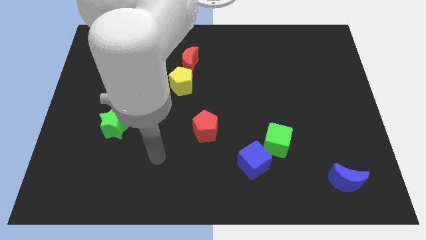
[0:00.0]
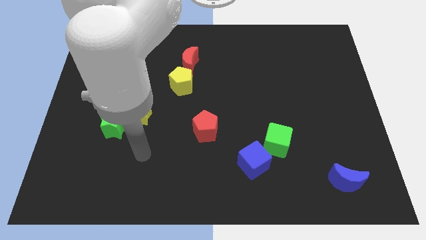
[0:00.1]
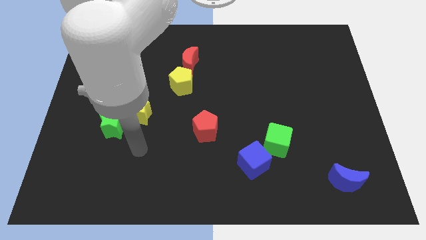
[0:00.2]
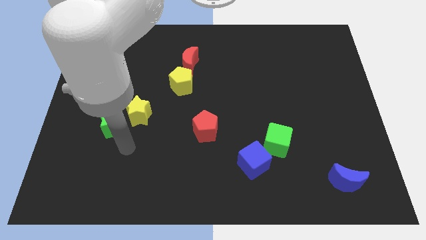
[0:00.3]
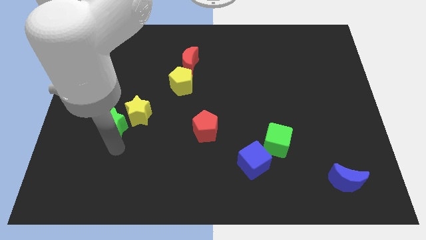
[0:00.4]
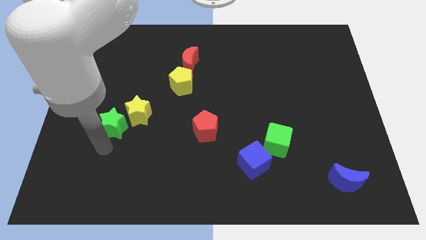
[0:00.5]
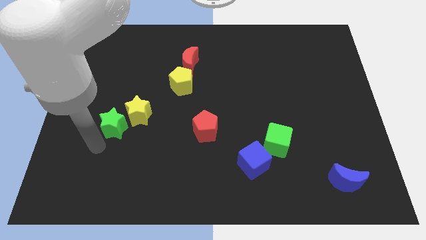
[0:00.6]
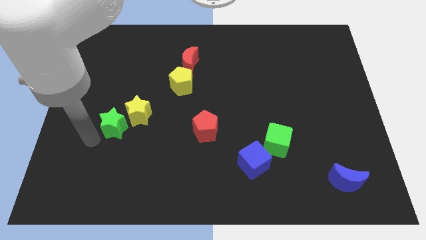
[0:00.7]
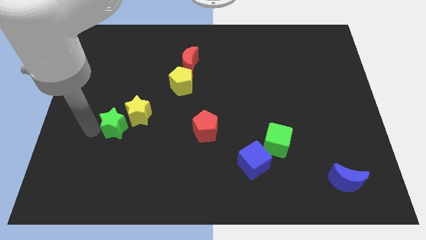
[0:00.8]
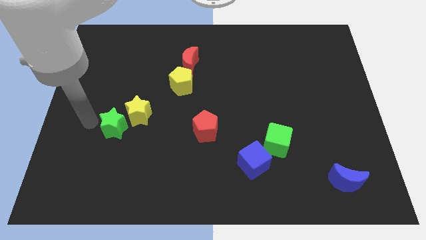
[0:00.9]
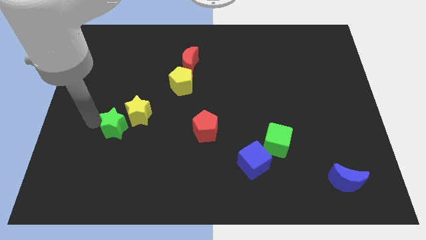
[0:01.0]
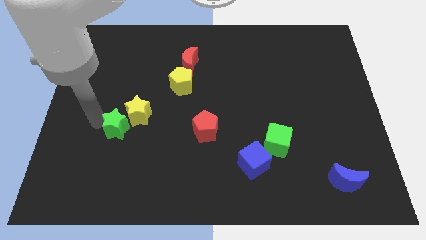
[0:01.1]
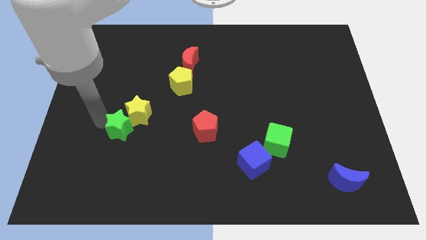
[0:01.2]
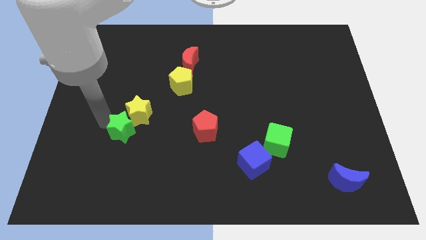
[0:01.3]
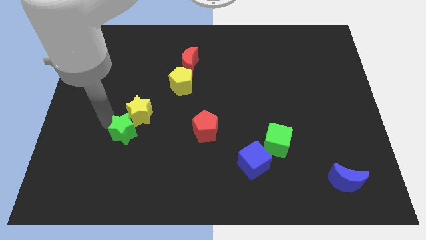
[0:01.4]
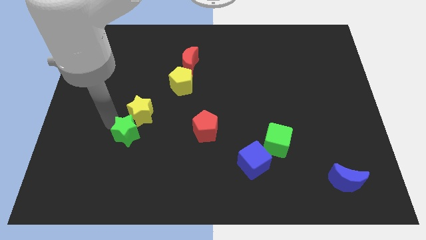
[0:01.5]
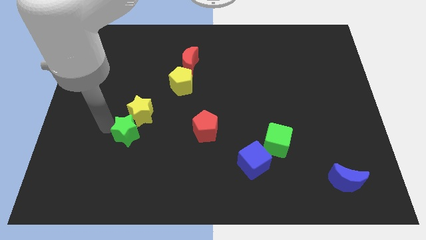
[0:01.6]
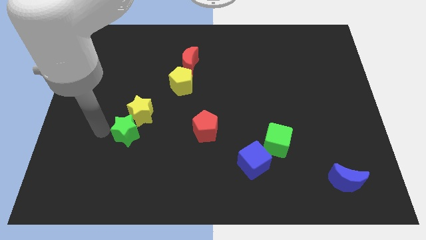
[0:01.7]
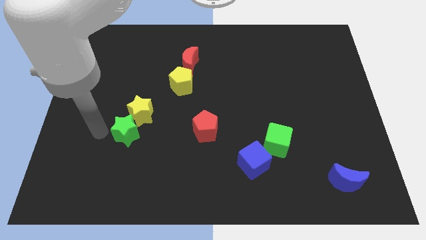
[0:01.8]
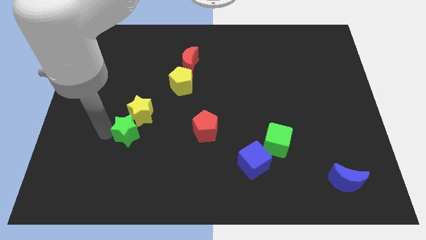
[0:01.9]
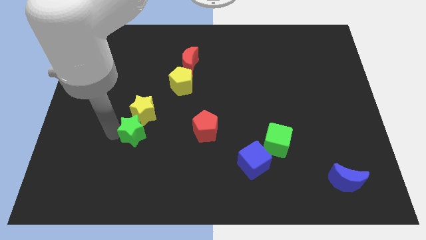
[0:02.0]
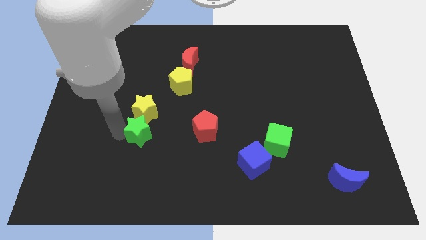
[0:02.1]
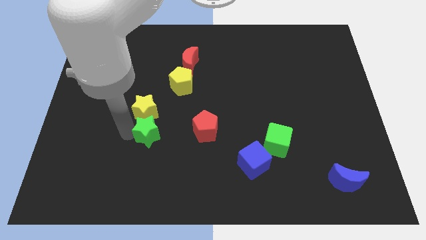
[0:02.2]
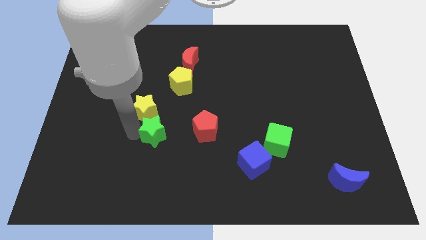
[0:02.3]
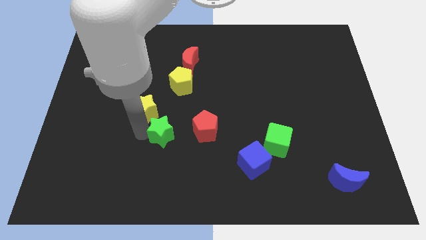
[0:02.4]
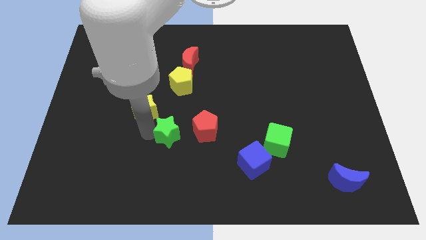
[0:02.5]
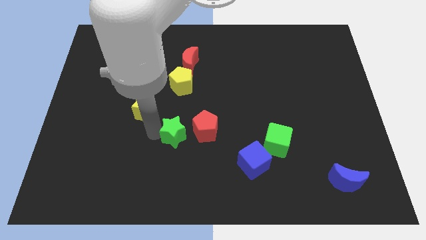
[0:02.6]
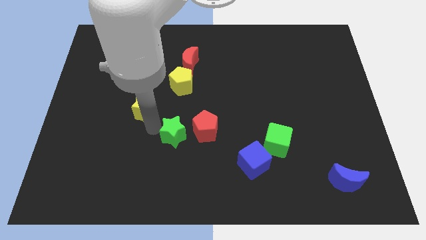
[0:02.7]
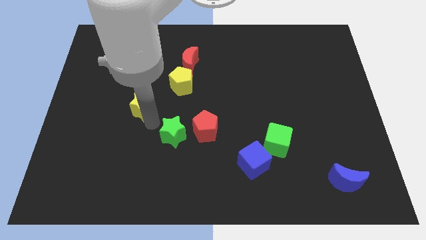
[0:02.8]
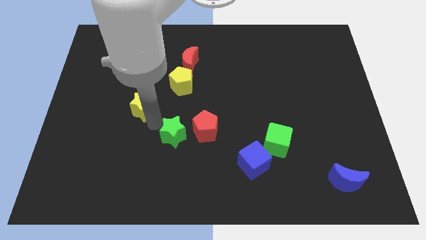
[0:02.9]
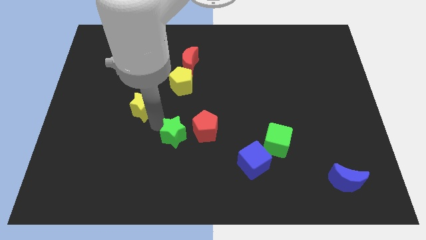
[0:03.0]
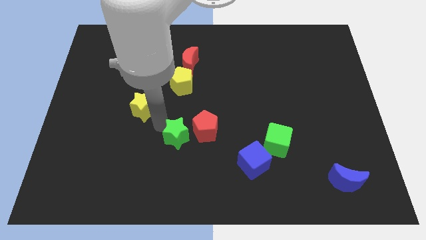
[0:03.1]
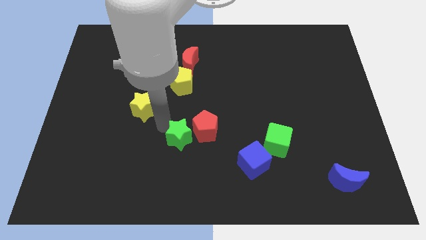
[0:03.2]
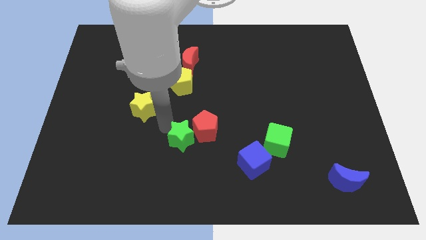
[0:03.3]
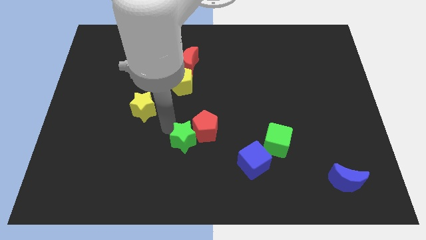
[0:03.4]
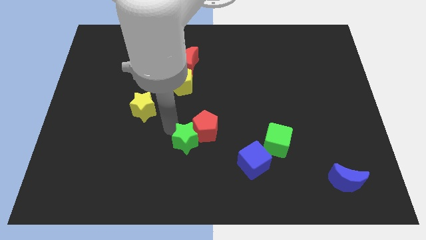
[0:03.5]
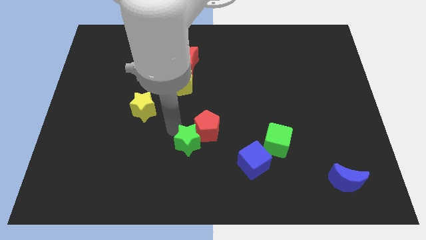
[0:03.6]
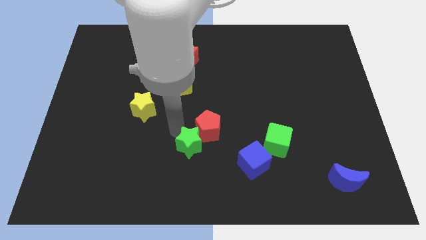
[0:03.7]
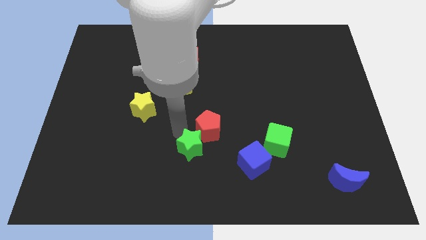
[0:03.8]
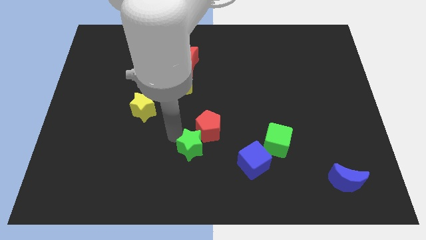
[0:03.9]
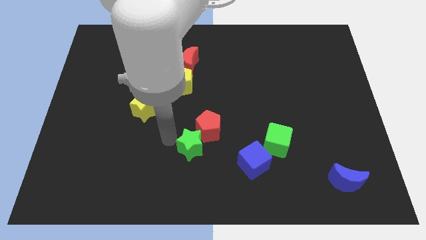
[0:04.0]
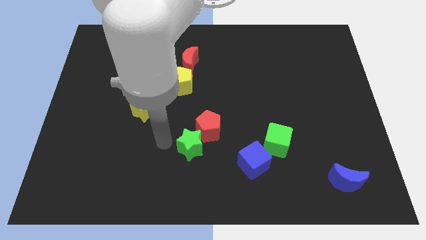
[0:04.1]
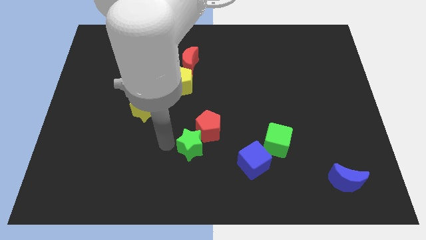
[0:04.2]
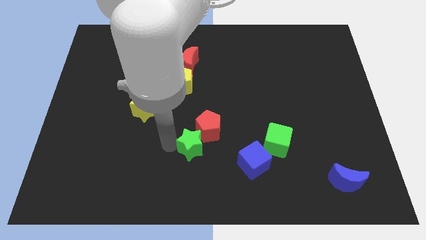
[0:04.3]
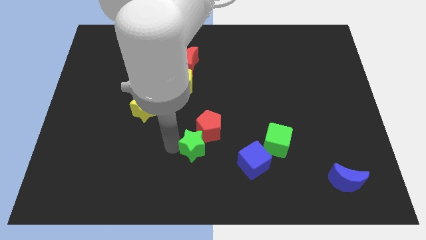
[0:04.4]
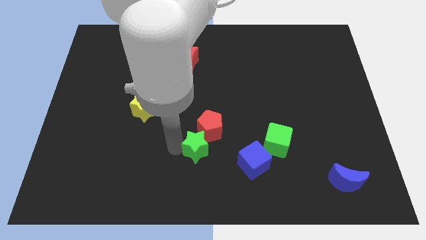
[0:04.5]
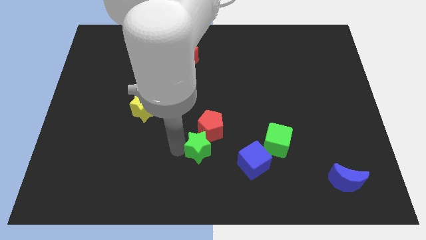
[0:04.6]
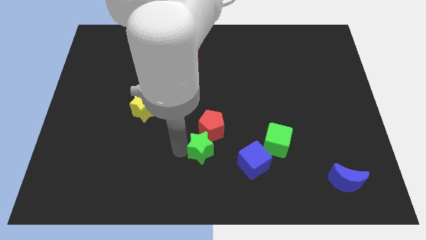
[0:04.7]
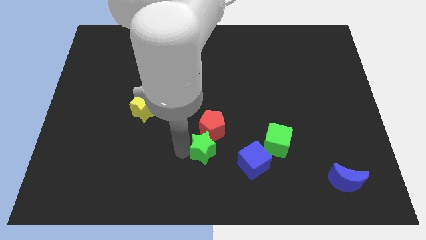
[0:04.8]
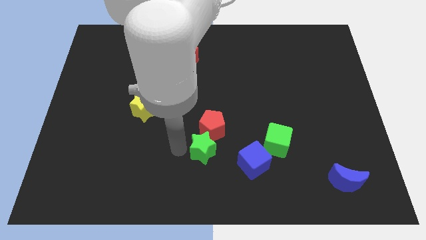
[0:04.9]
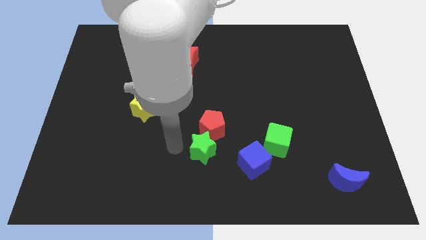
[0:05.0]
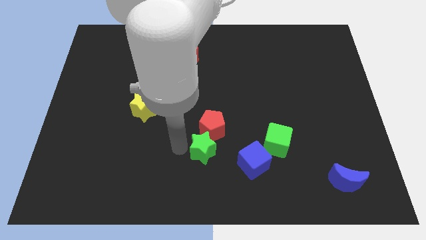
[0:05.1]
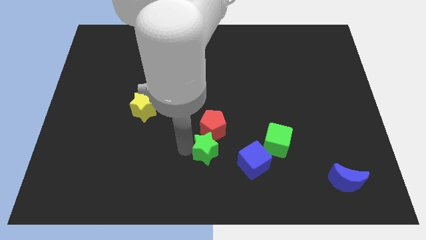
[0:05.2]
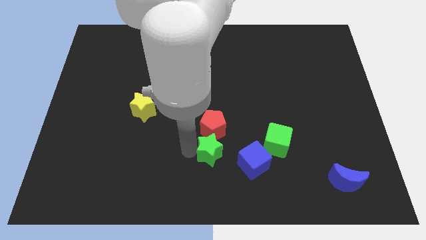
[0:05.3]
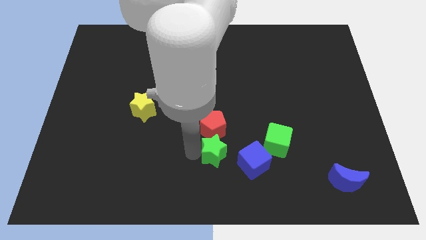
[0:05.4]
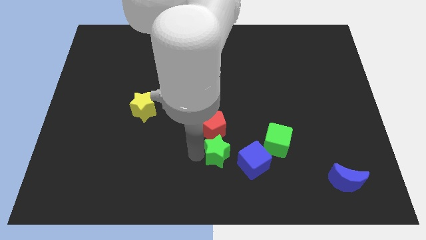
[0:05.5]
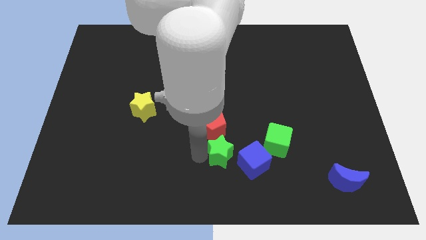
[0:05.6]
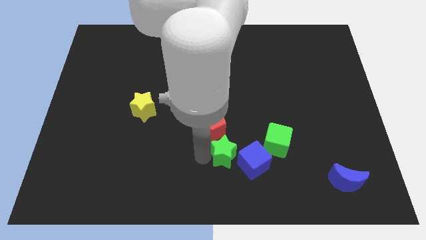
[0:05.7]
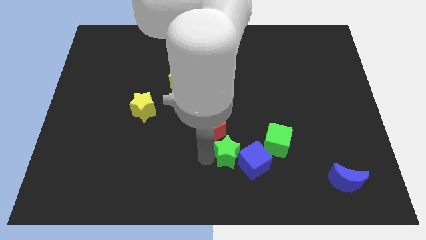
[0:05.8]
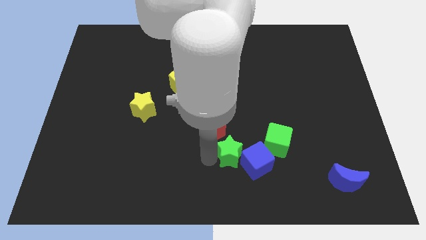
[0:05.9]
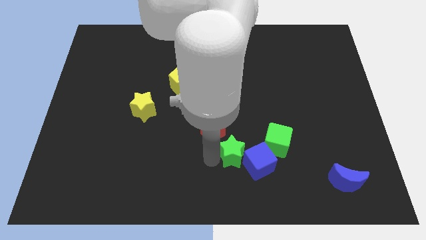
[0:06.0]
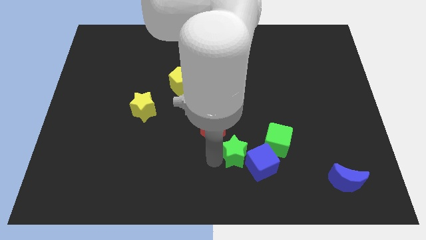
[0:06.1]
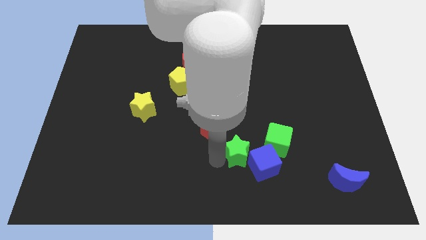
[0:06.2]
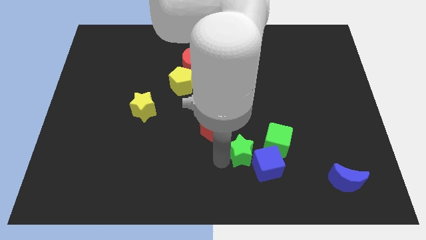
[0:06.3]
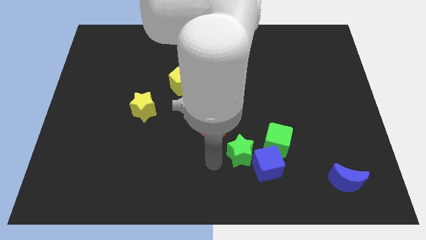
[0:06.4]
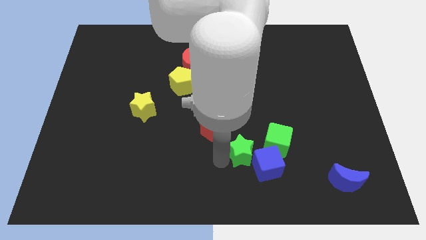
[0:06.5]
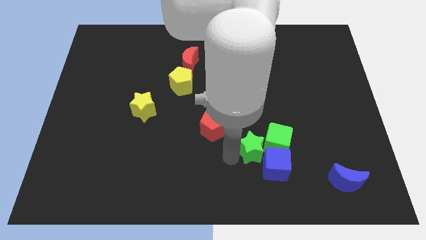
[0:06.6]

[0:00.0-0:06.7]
push the green star next to the green cube
